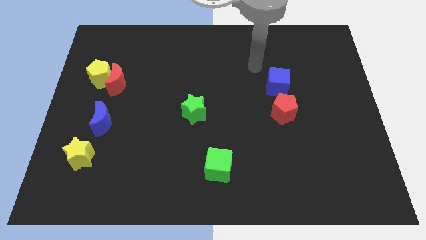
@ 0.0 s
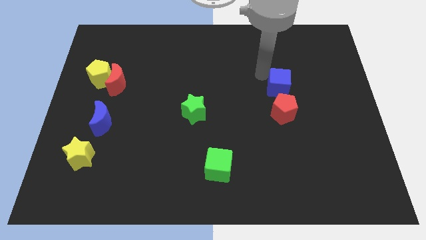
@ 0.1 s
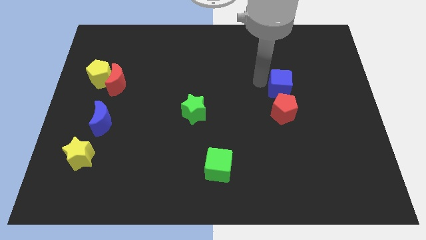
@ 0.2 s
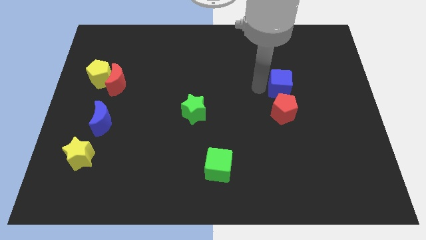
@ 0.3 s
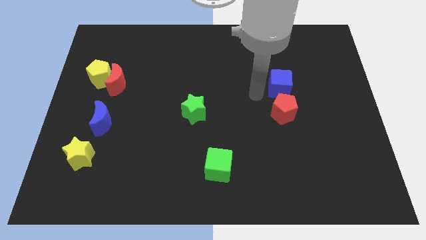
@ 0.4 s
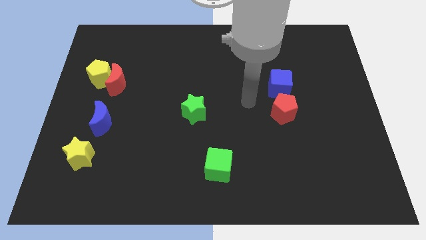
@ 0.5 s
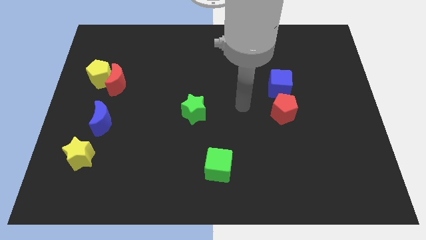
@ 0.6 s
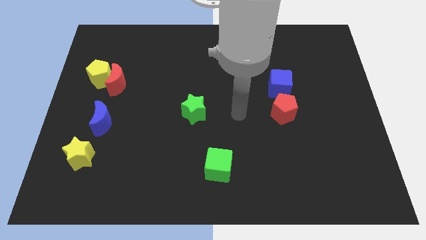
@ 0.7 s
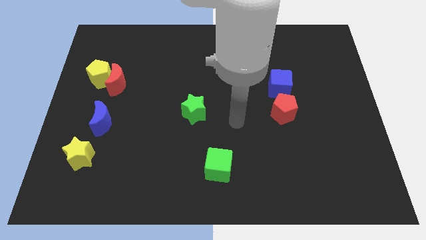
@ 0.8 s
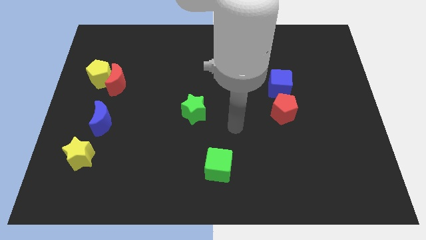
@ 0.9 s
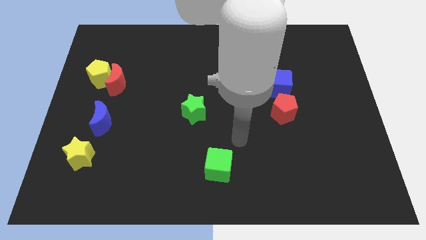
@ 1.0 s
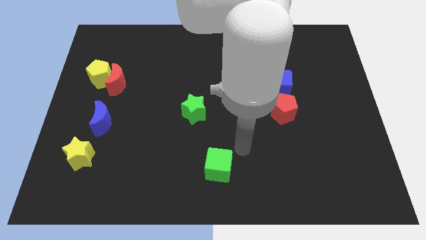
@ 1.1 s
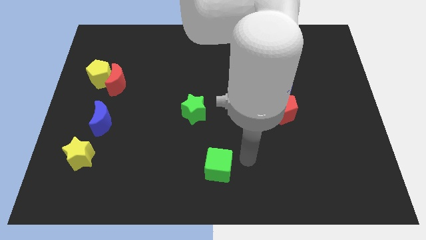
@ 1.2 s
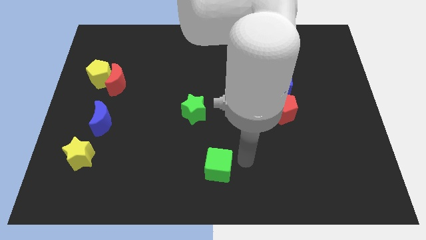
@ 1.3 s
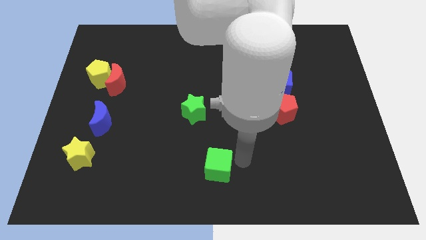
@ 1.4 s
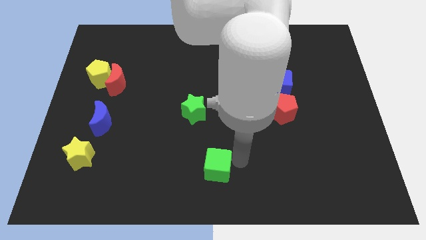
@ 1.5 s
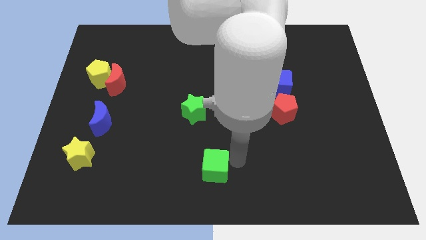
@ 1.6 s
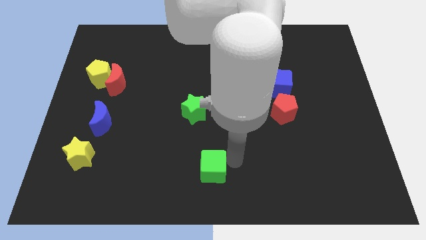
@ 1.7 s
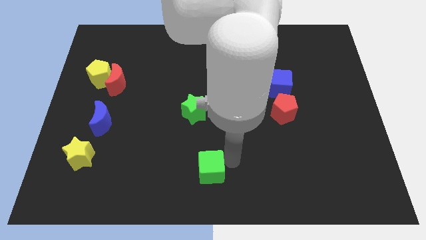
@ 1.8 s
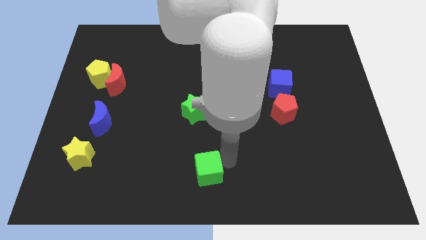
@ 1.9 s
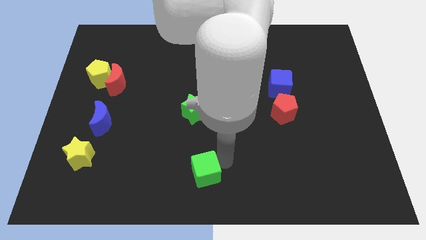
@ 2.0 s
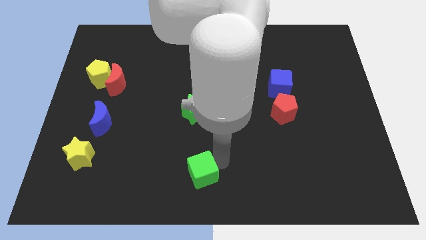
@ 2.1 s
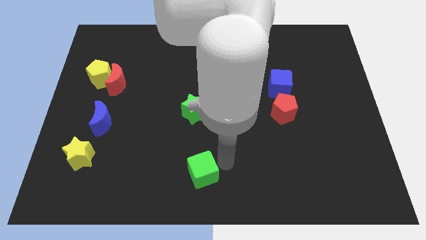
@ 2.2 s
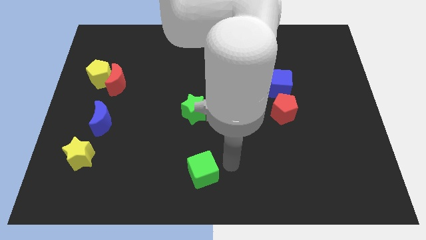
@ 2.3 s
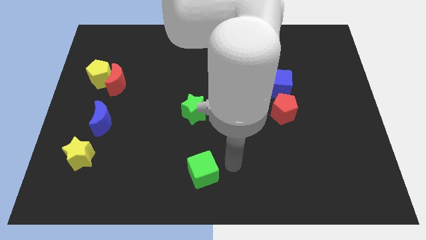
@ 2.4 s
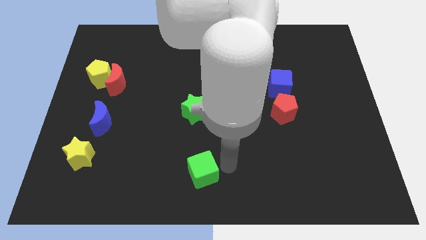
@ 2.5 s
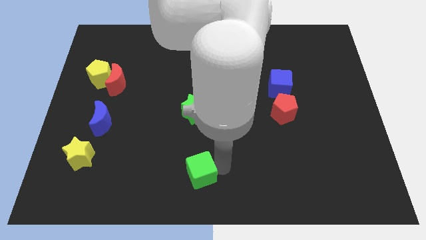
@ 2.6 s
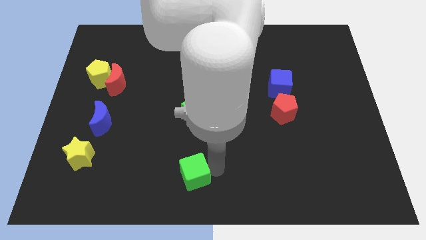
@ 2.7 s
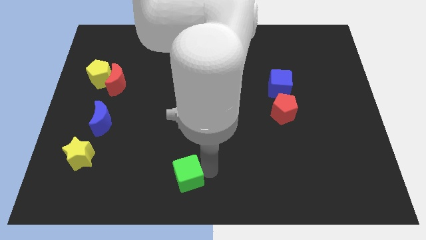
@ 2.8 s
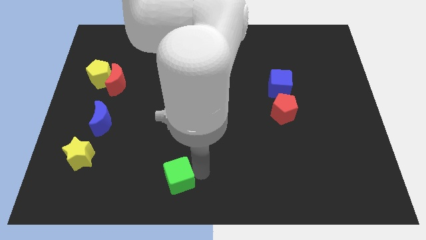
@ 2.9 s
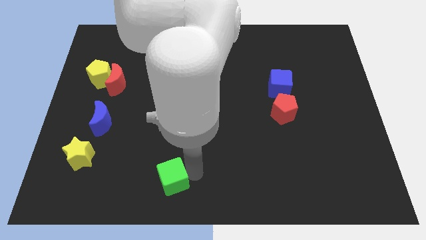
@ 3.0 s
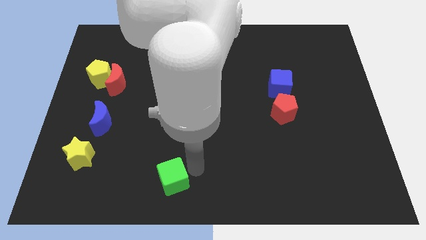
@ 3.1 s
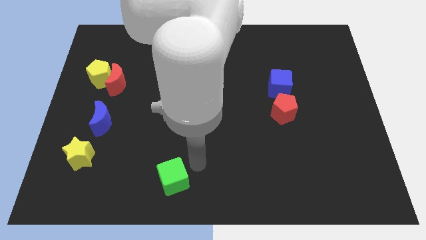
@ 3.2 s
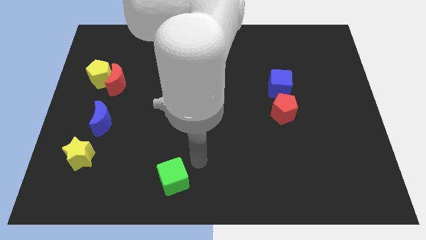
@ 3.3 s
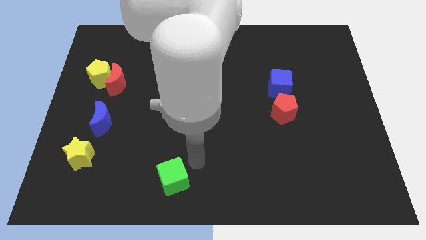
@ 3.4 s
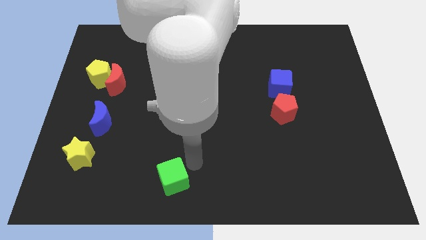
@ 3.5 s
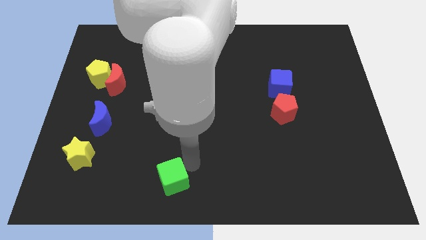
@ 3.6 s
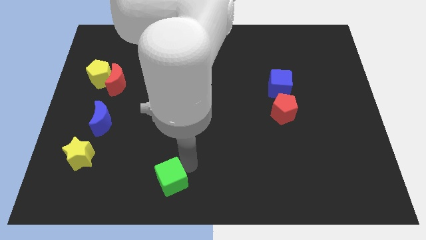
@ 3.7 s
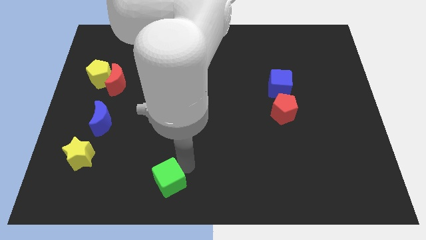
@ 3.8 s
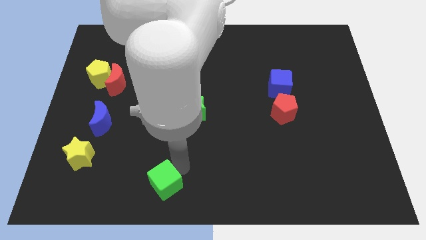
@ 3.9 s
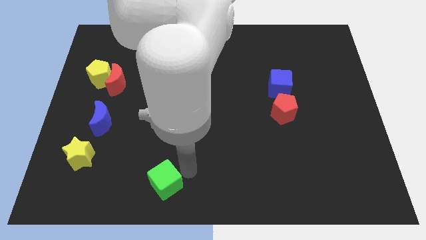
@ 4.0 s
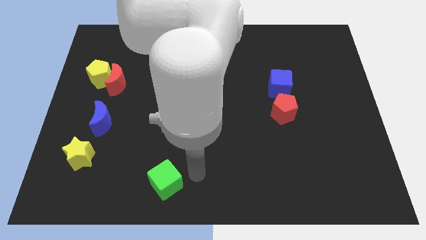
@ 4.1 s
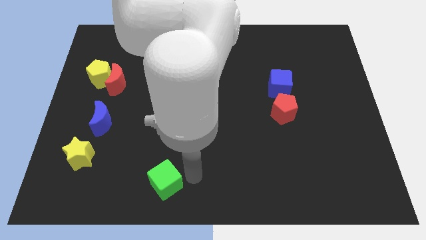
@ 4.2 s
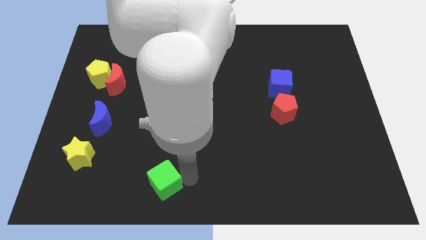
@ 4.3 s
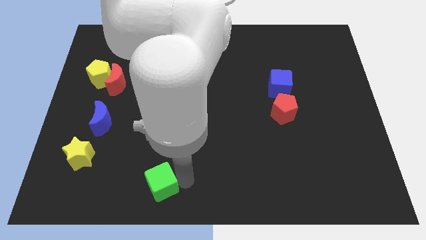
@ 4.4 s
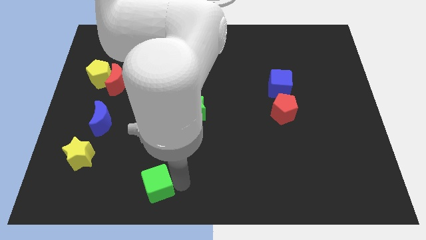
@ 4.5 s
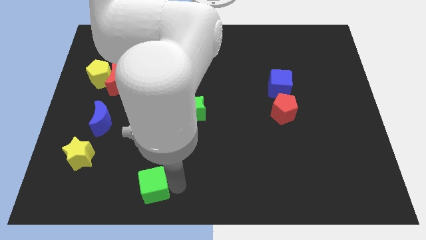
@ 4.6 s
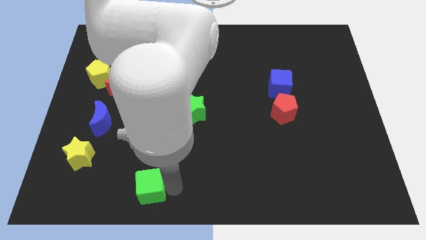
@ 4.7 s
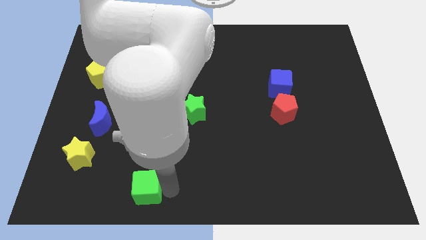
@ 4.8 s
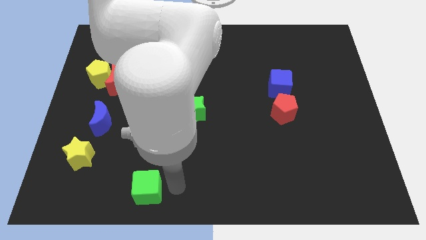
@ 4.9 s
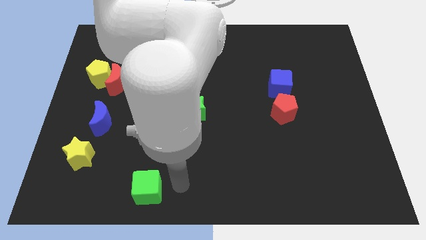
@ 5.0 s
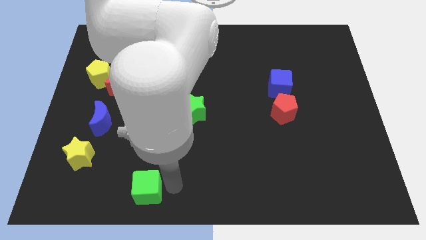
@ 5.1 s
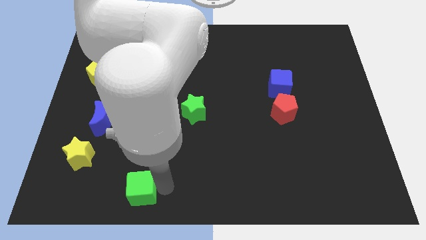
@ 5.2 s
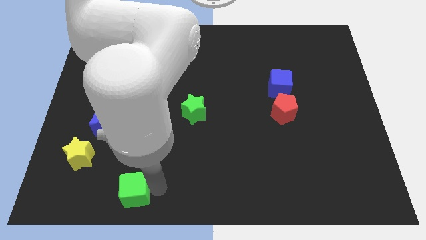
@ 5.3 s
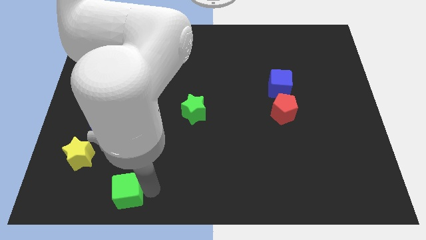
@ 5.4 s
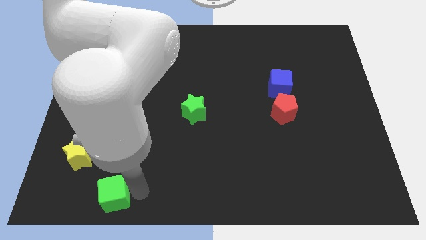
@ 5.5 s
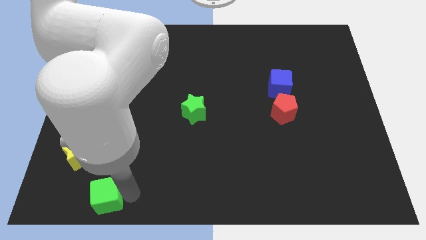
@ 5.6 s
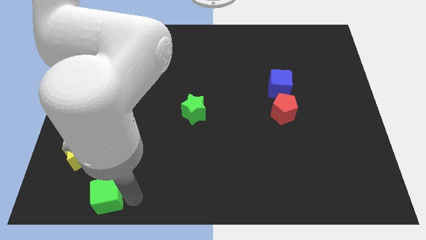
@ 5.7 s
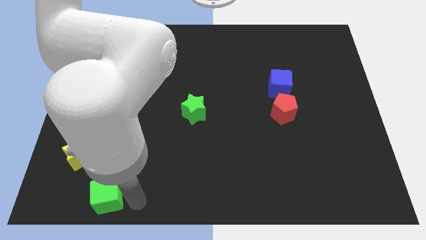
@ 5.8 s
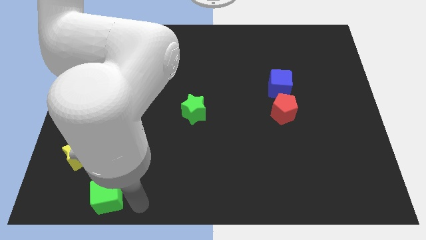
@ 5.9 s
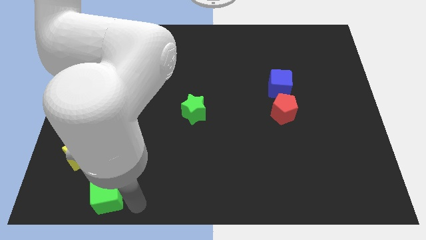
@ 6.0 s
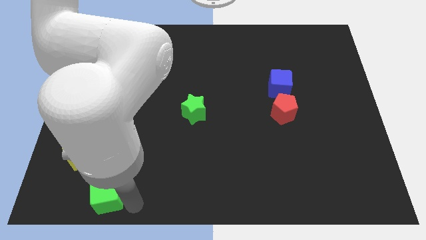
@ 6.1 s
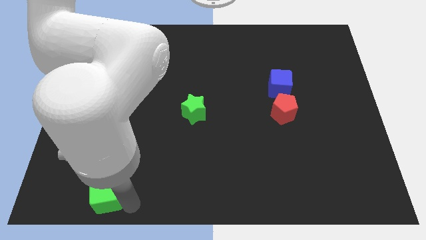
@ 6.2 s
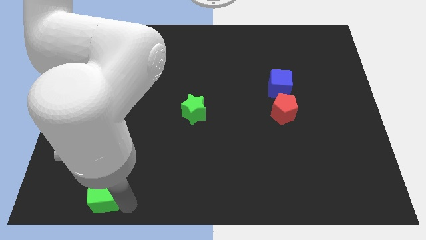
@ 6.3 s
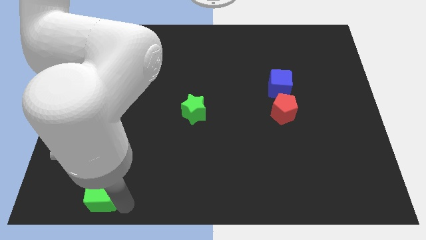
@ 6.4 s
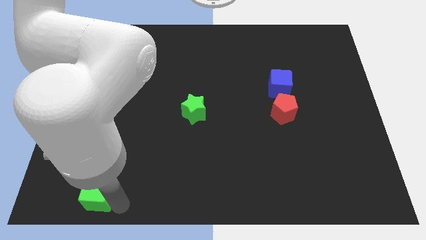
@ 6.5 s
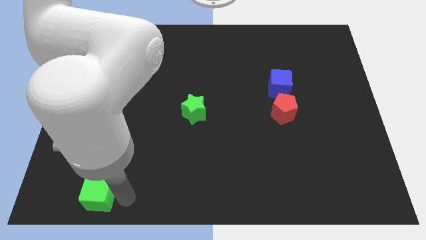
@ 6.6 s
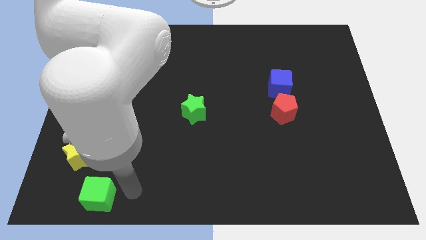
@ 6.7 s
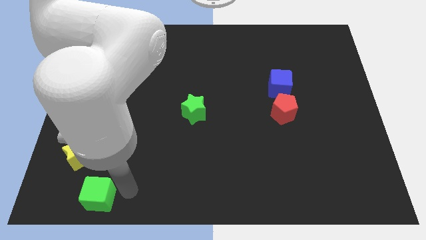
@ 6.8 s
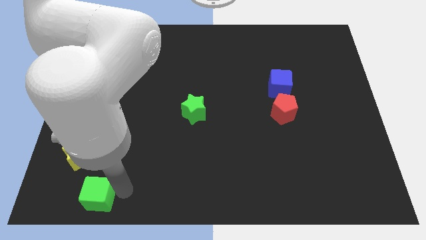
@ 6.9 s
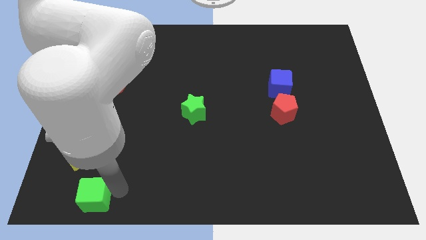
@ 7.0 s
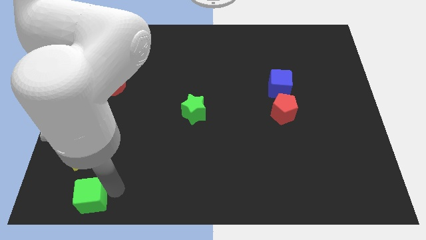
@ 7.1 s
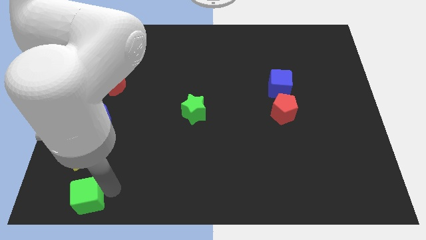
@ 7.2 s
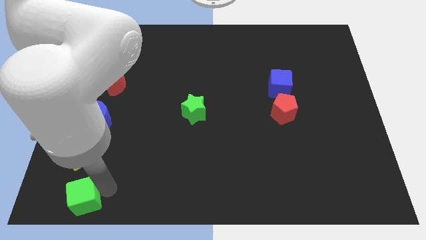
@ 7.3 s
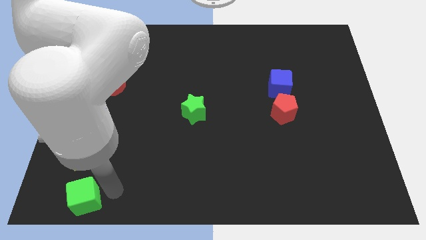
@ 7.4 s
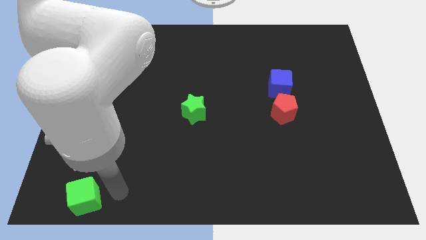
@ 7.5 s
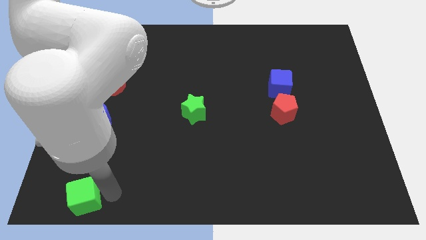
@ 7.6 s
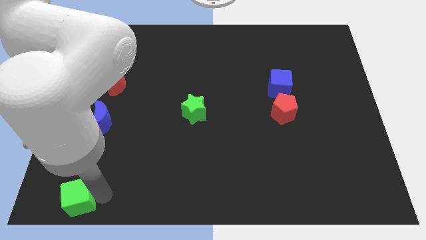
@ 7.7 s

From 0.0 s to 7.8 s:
slide the green cube to the bottom left corner
